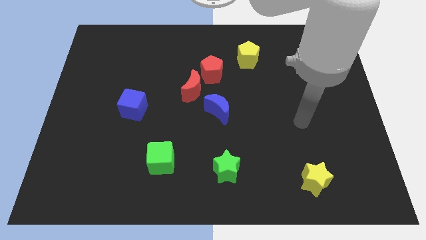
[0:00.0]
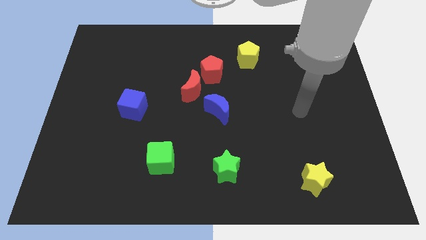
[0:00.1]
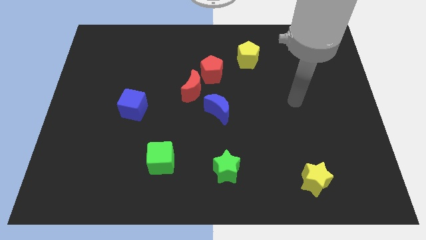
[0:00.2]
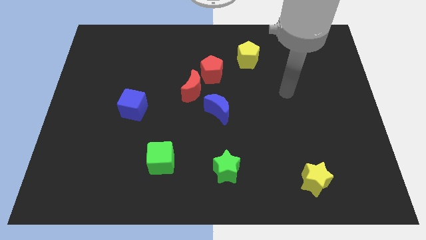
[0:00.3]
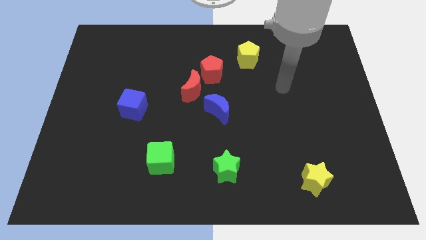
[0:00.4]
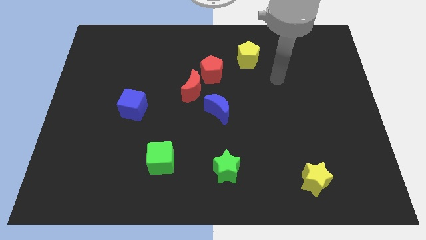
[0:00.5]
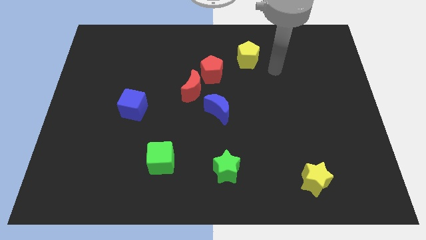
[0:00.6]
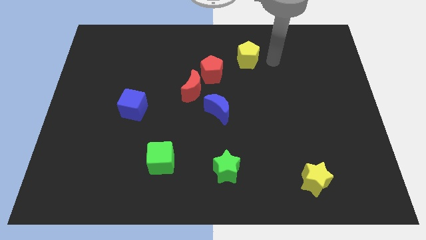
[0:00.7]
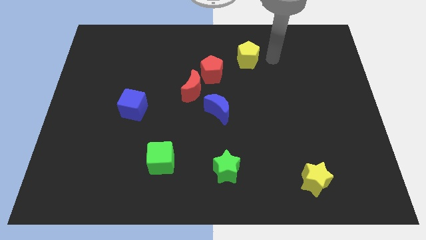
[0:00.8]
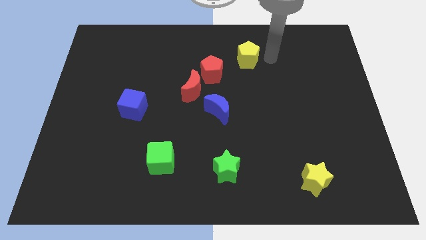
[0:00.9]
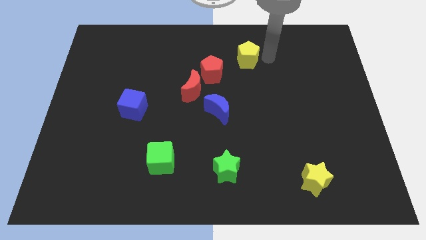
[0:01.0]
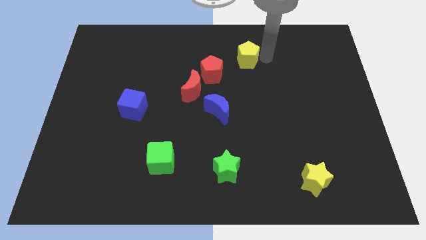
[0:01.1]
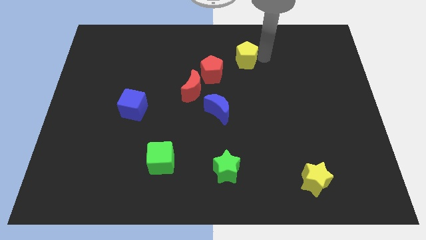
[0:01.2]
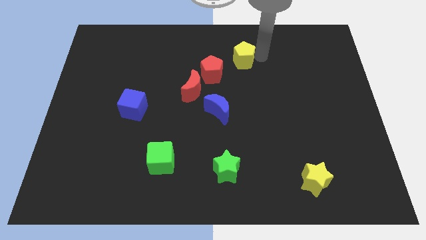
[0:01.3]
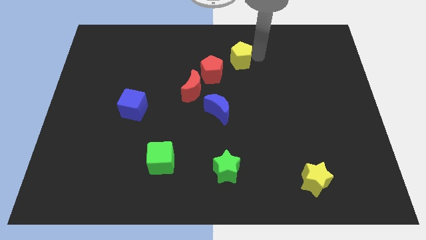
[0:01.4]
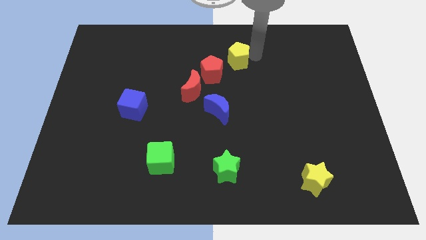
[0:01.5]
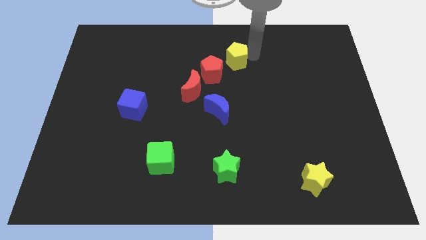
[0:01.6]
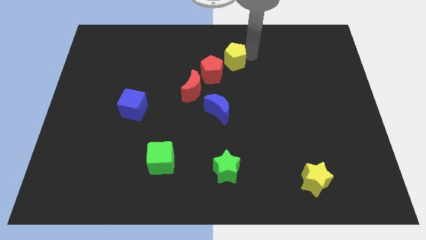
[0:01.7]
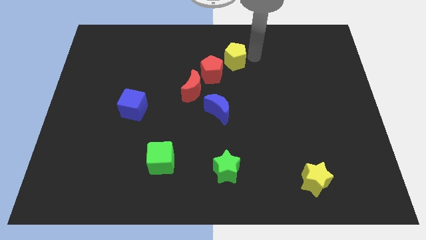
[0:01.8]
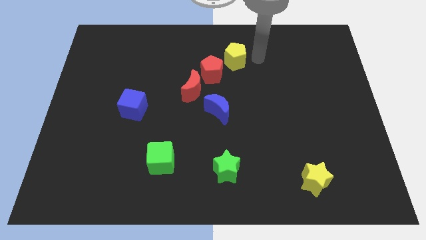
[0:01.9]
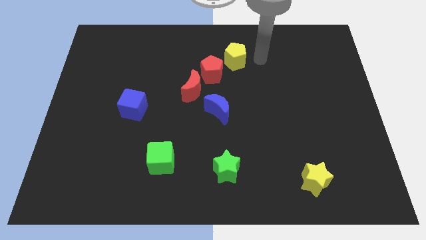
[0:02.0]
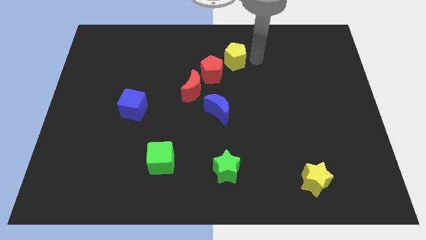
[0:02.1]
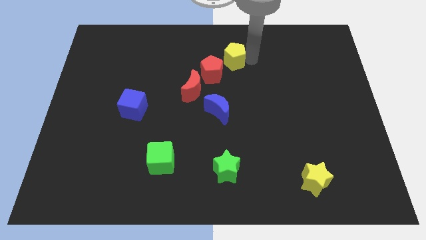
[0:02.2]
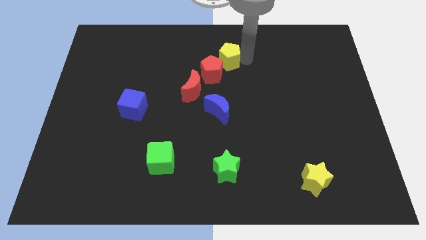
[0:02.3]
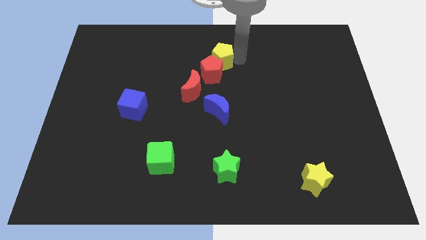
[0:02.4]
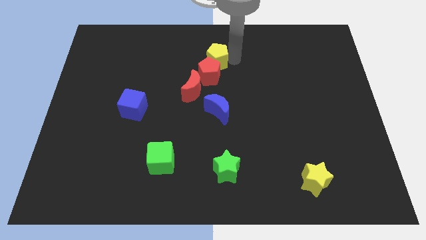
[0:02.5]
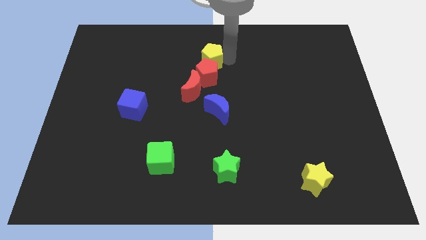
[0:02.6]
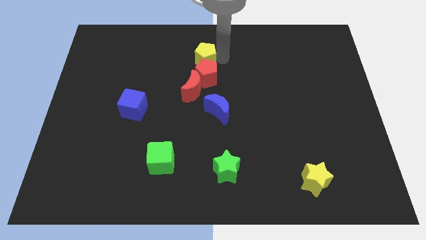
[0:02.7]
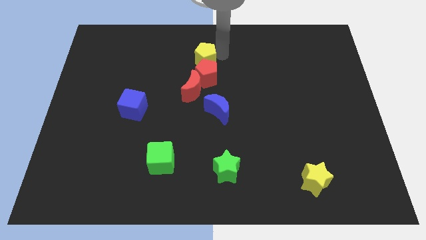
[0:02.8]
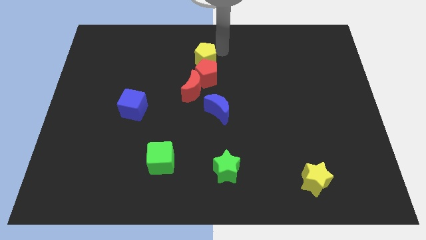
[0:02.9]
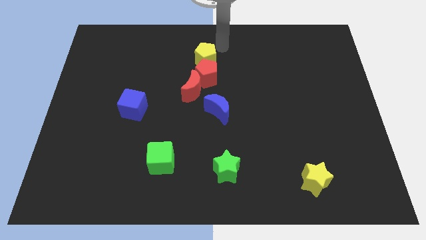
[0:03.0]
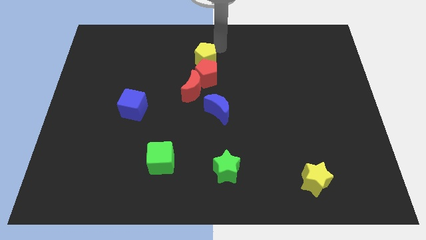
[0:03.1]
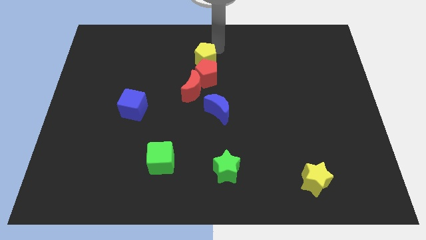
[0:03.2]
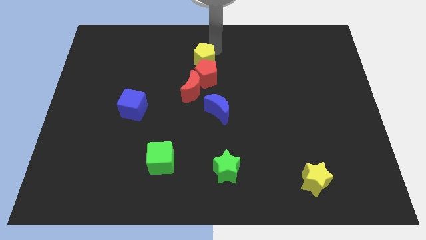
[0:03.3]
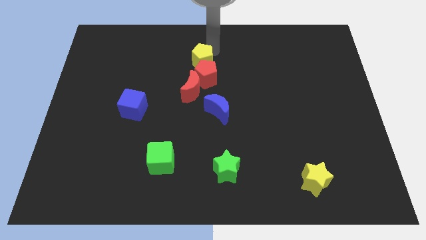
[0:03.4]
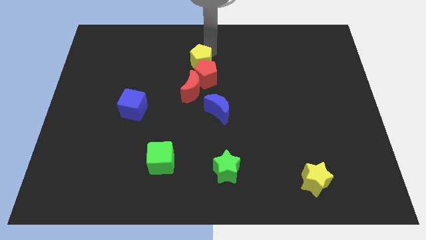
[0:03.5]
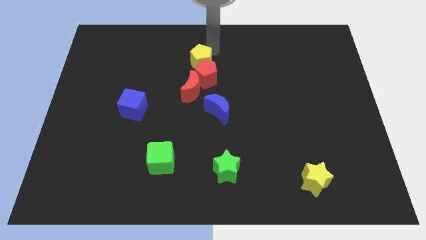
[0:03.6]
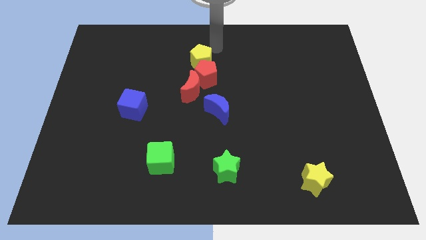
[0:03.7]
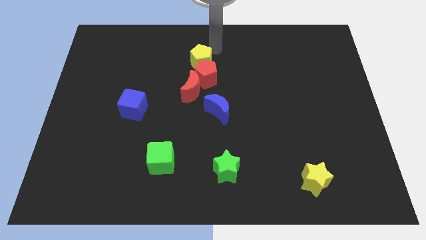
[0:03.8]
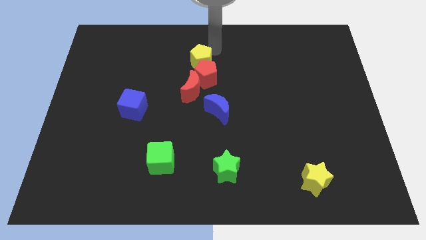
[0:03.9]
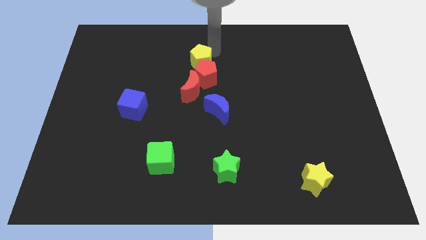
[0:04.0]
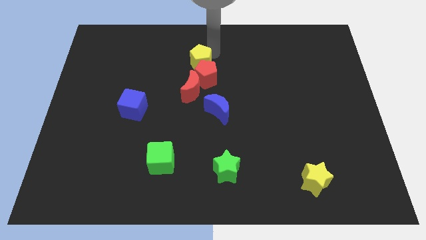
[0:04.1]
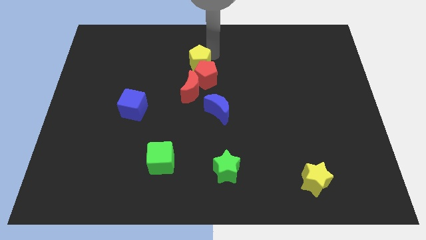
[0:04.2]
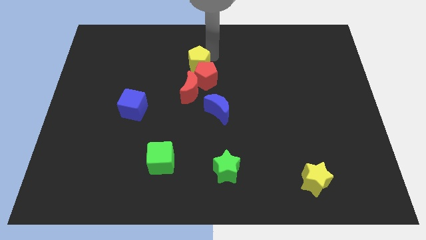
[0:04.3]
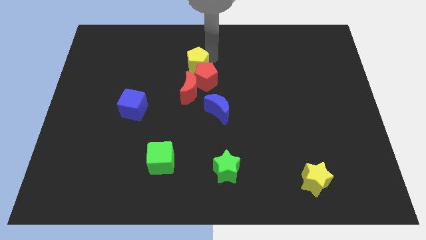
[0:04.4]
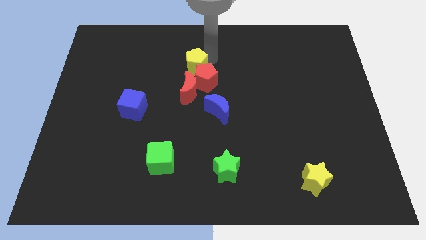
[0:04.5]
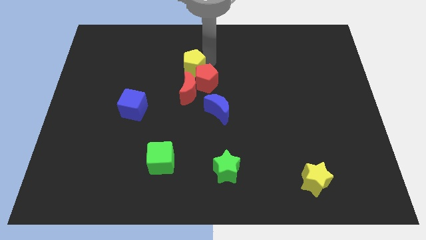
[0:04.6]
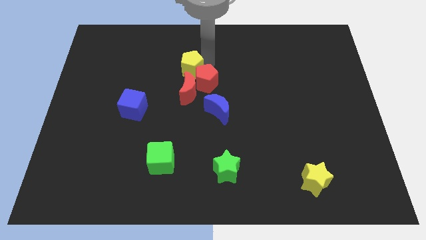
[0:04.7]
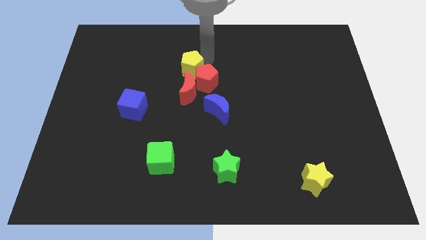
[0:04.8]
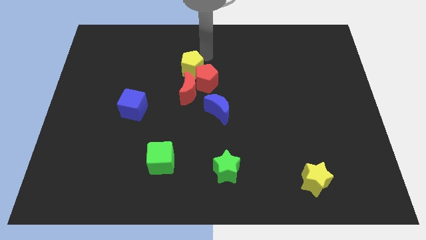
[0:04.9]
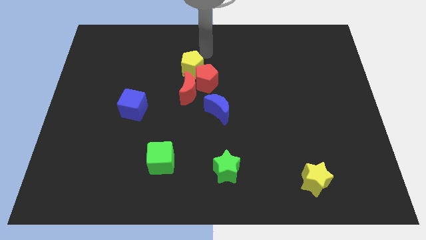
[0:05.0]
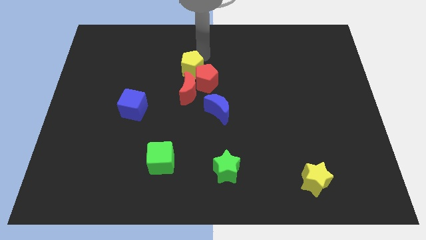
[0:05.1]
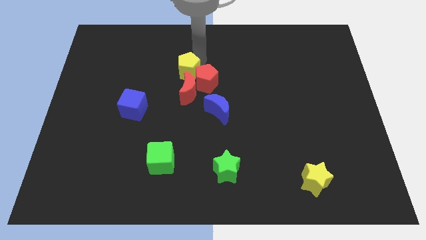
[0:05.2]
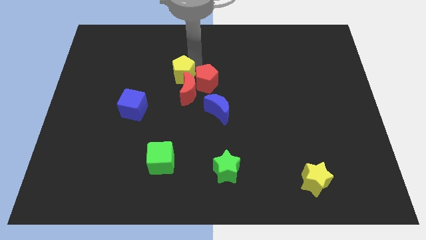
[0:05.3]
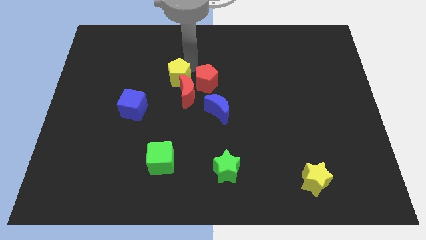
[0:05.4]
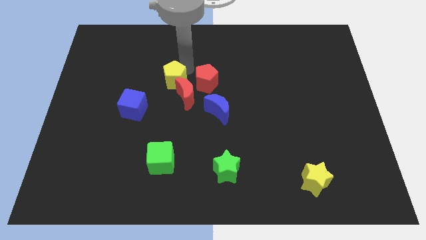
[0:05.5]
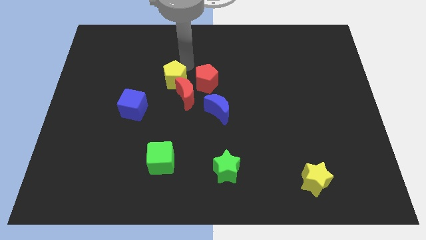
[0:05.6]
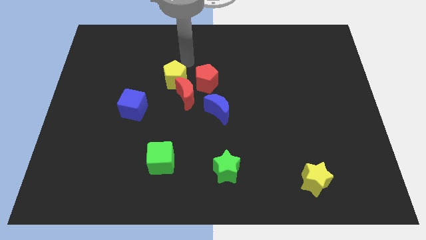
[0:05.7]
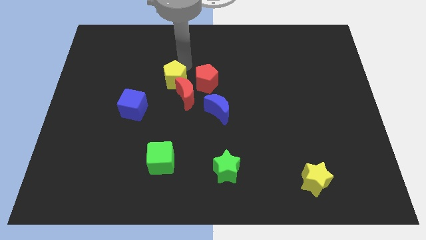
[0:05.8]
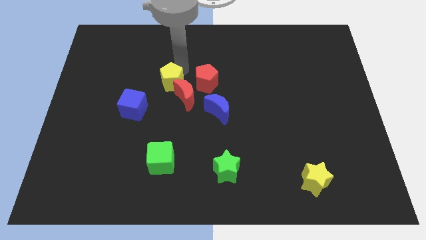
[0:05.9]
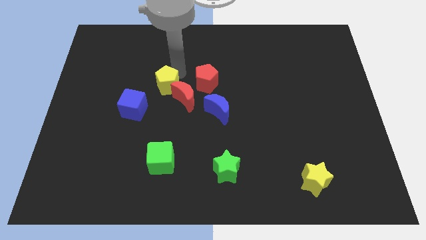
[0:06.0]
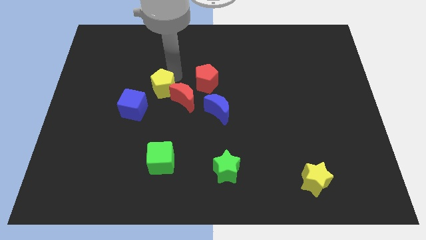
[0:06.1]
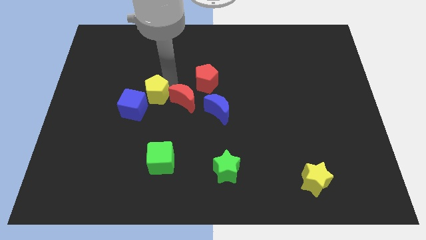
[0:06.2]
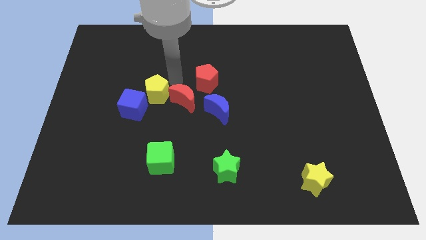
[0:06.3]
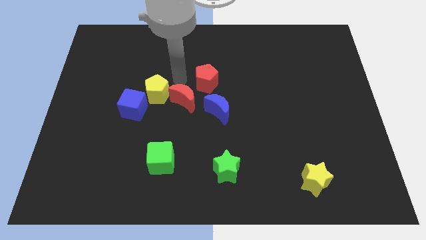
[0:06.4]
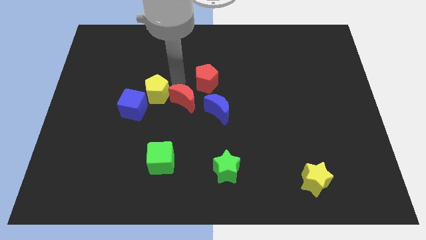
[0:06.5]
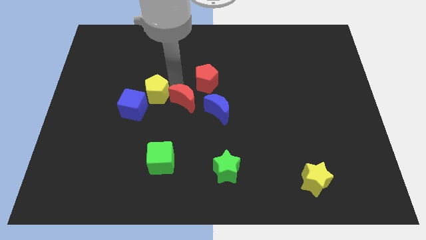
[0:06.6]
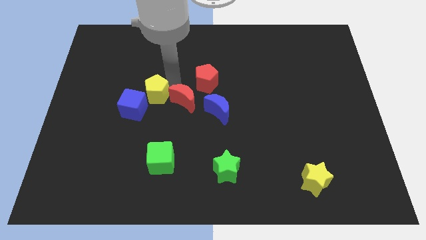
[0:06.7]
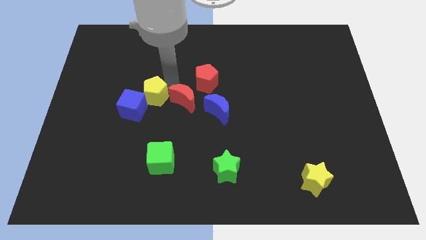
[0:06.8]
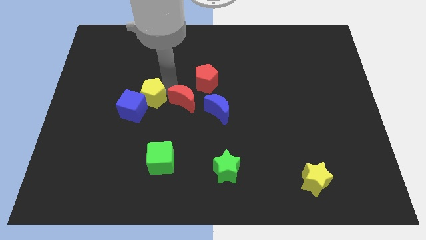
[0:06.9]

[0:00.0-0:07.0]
move the yellow pentagon close to the blue cube

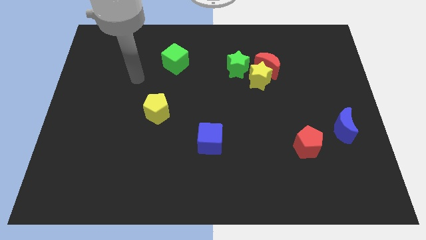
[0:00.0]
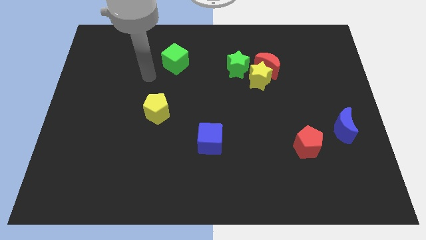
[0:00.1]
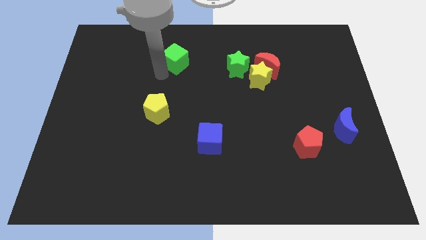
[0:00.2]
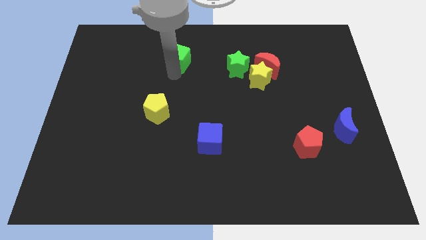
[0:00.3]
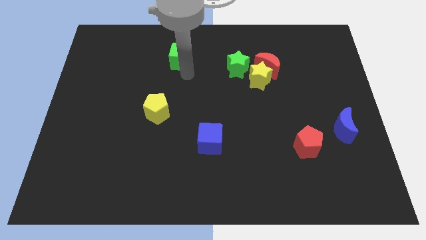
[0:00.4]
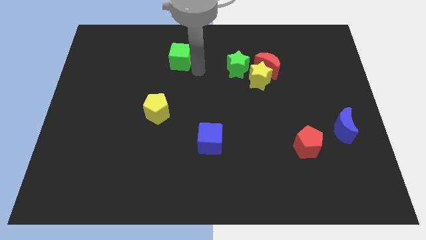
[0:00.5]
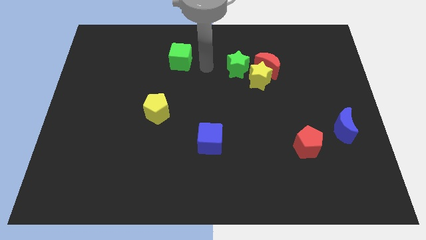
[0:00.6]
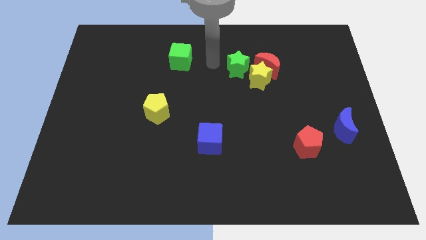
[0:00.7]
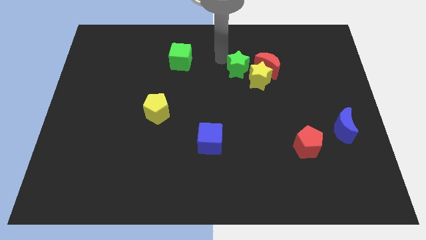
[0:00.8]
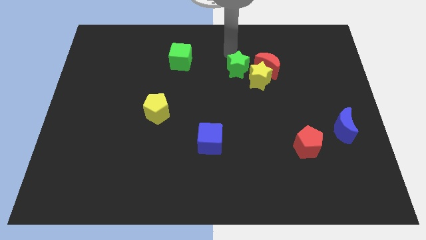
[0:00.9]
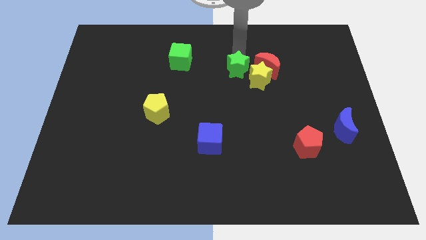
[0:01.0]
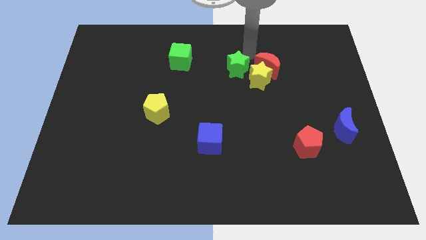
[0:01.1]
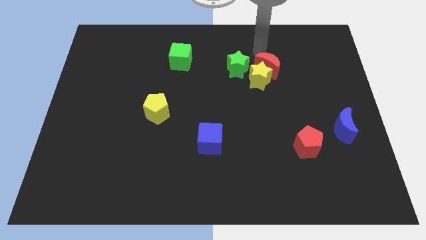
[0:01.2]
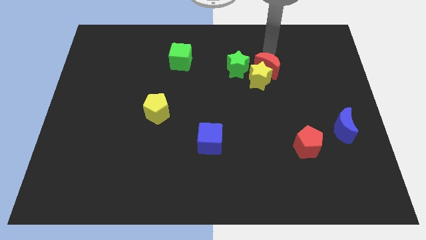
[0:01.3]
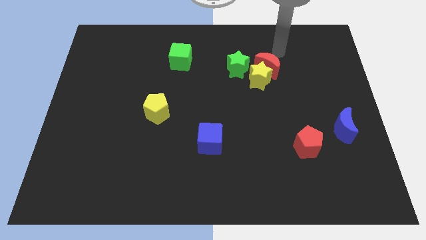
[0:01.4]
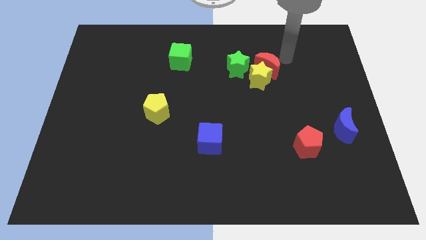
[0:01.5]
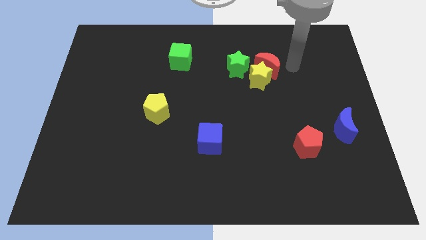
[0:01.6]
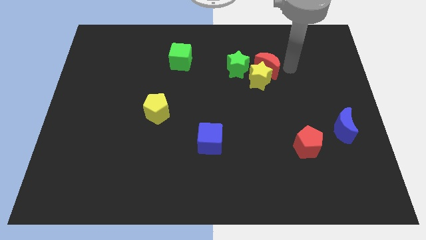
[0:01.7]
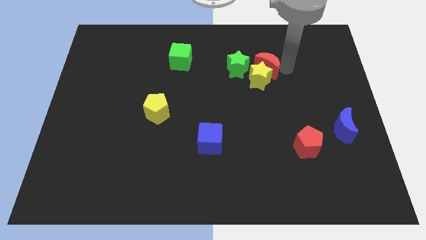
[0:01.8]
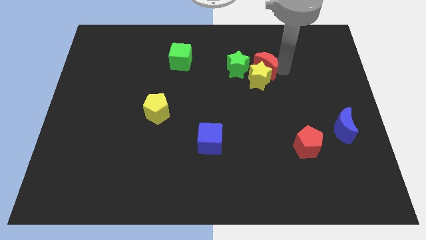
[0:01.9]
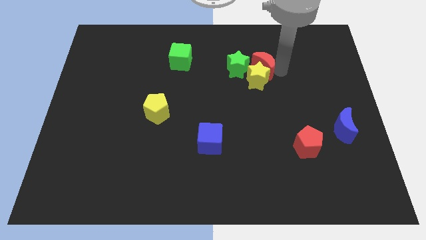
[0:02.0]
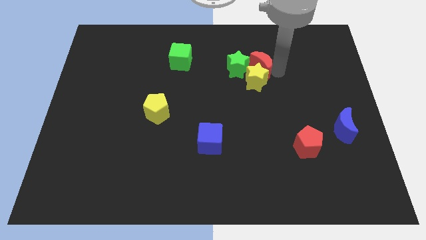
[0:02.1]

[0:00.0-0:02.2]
move the red moon to the green star
